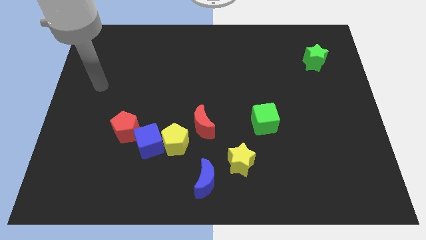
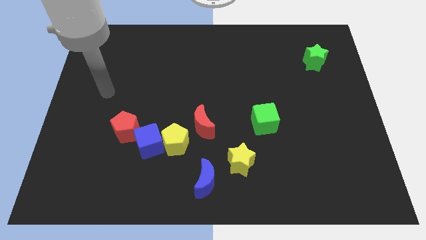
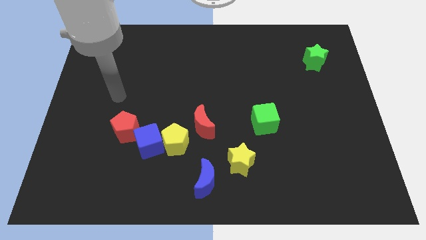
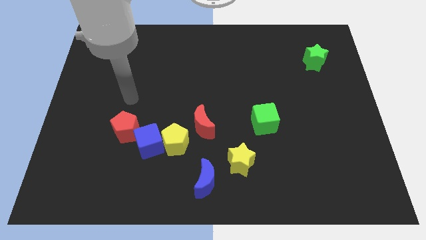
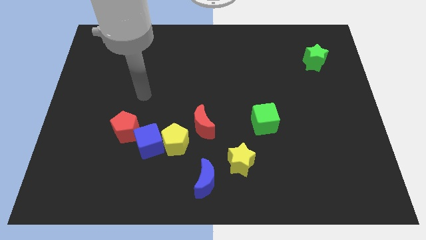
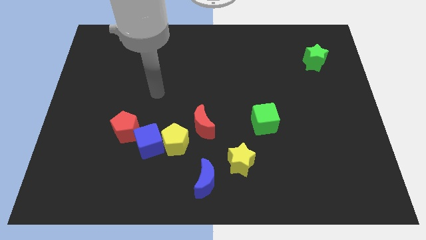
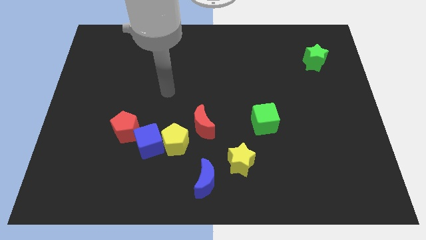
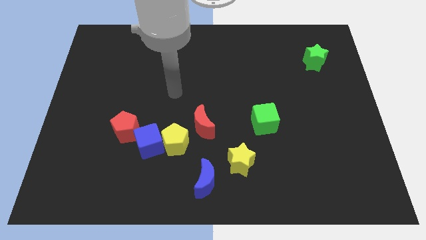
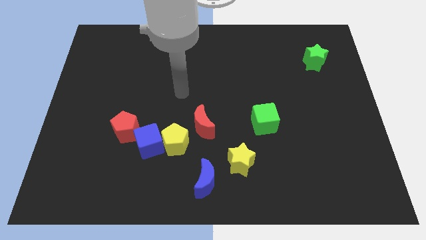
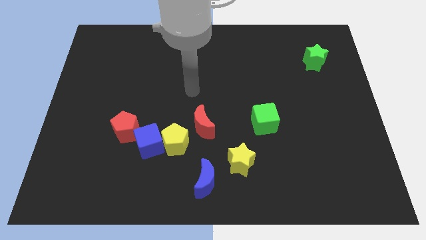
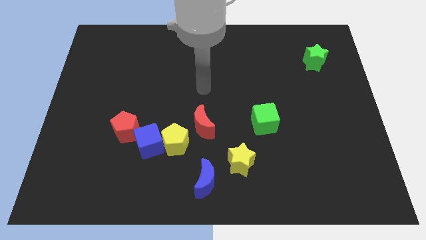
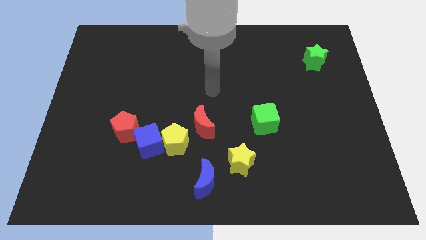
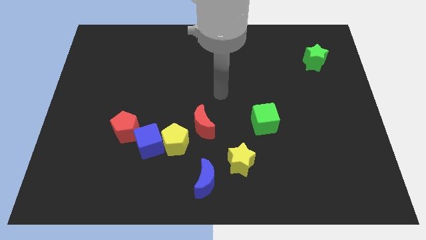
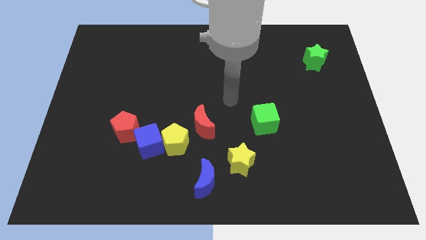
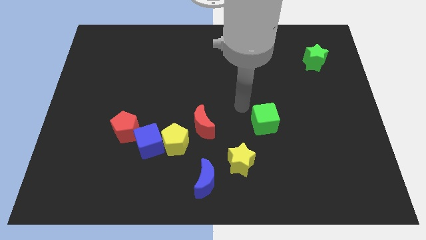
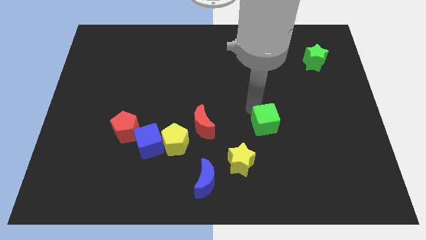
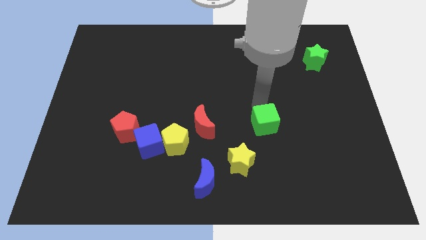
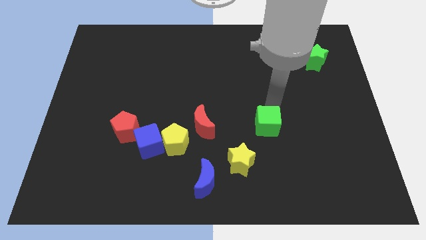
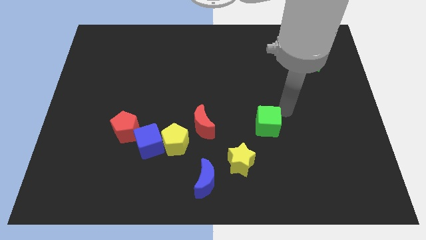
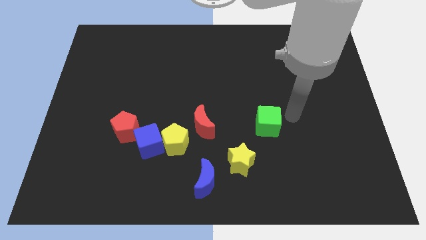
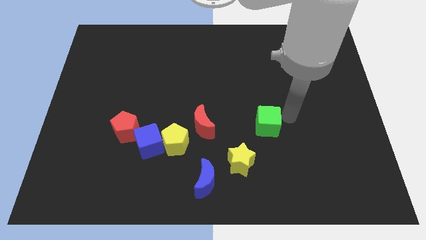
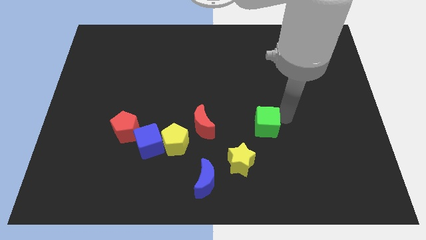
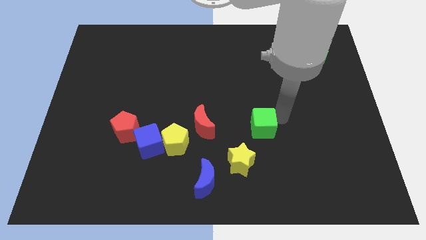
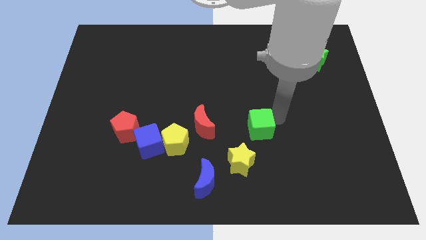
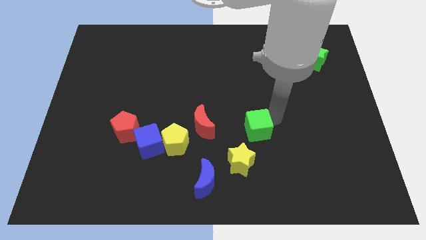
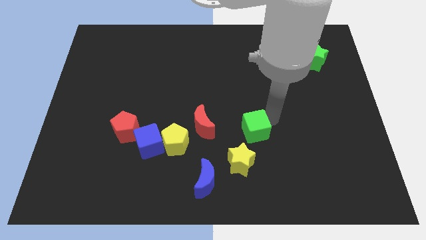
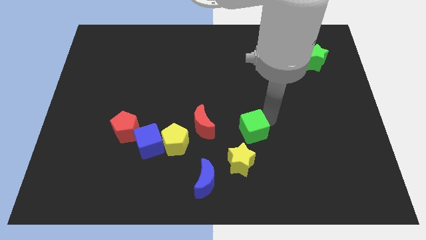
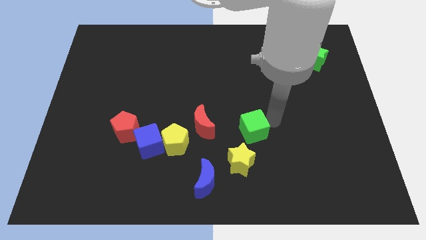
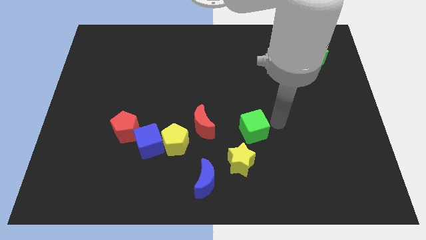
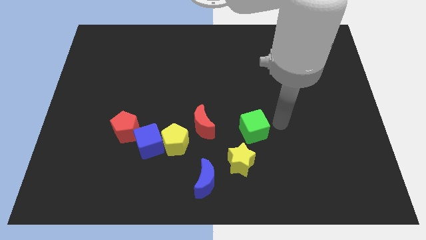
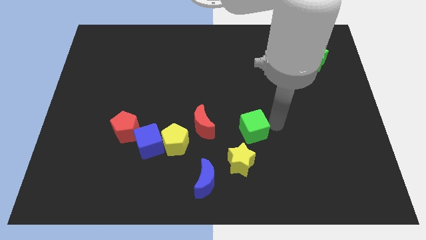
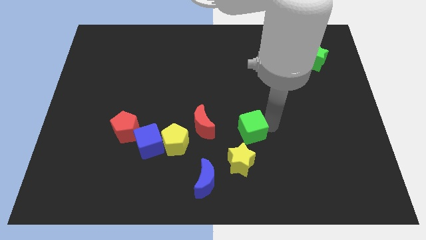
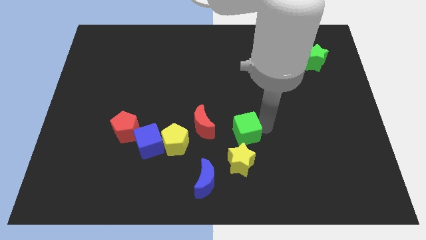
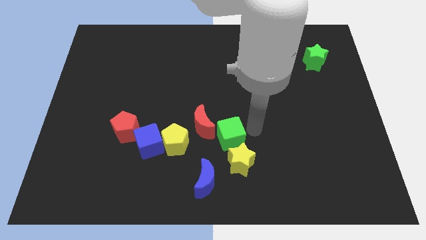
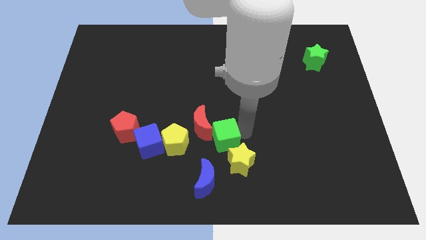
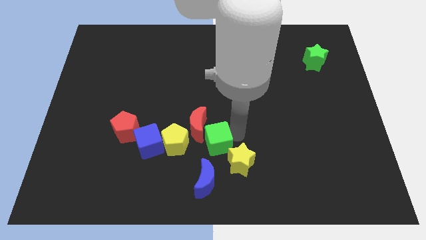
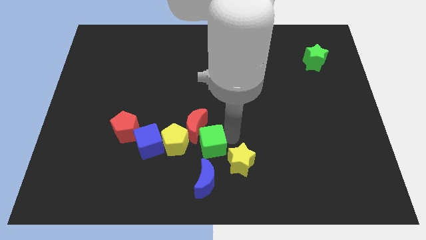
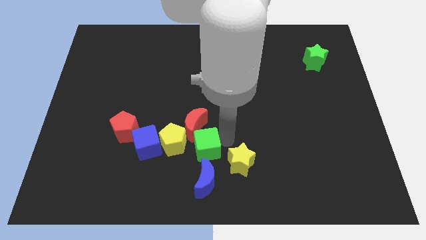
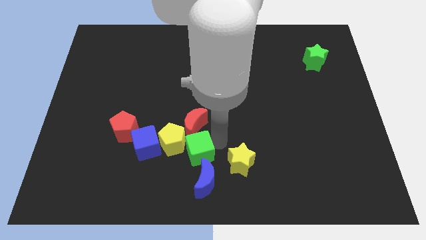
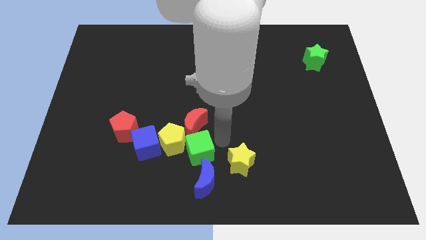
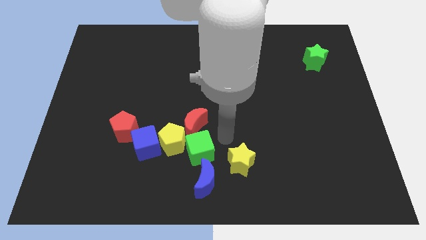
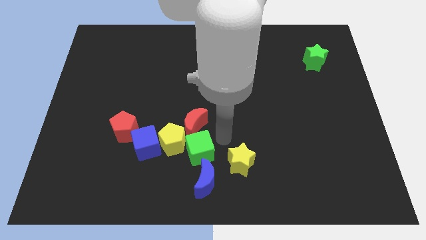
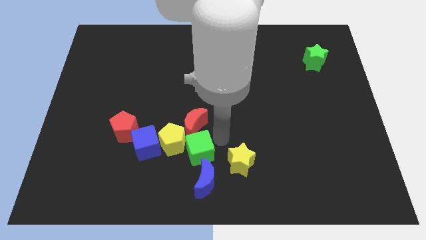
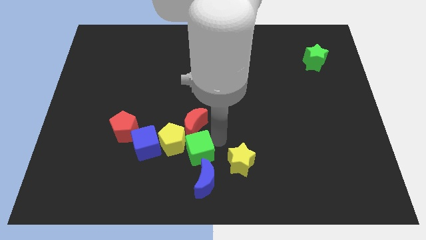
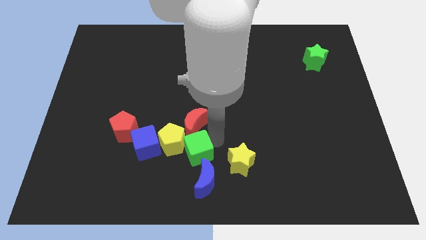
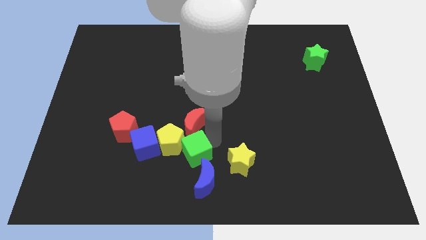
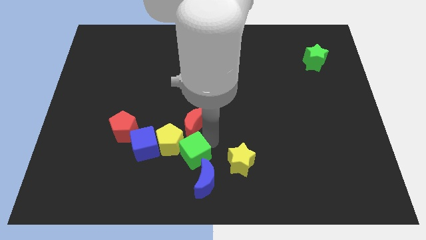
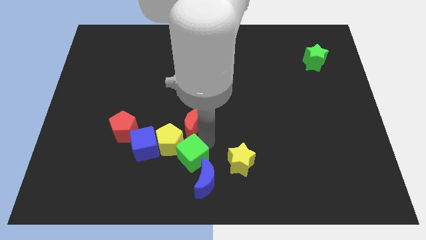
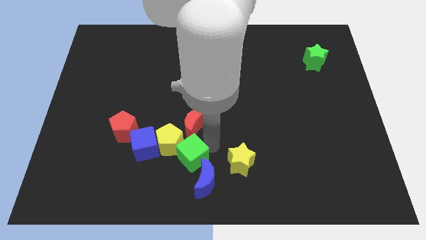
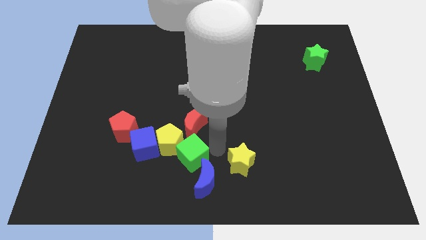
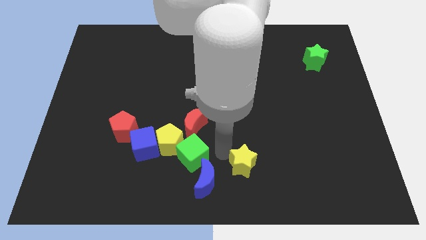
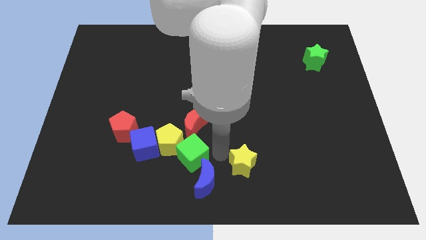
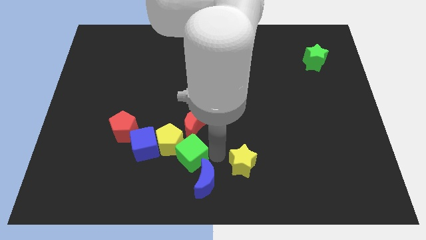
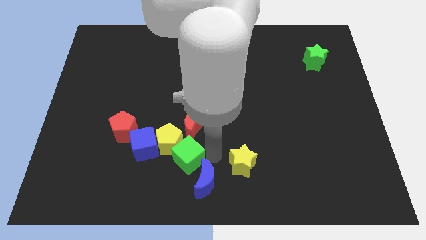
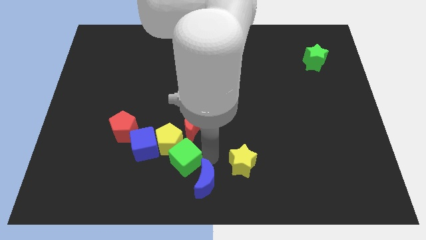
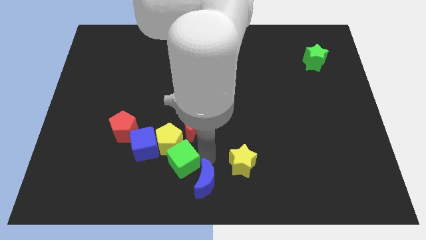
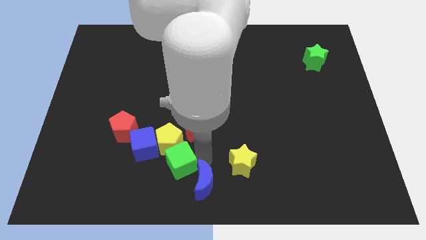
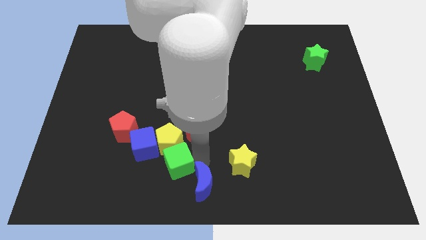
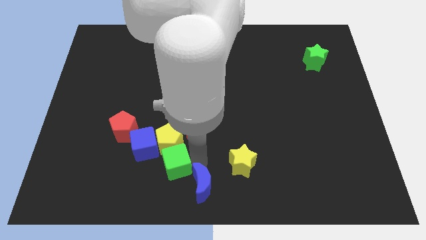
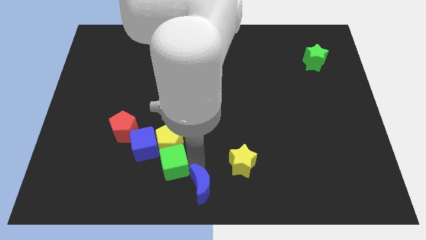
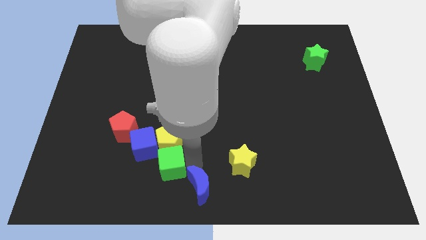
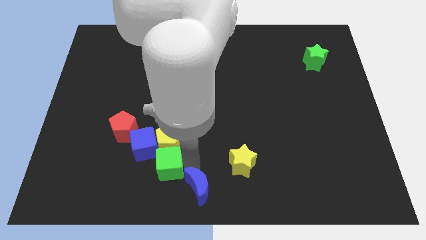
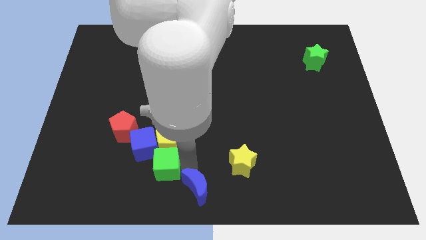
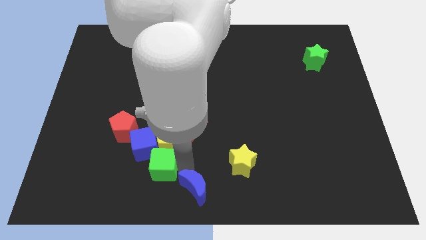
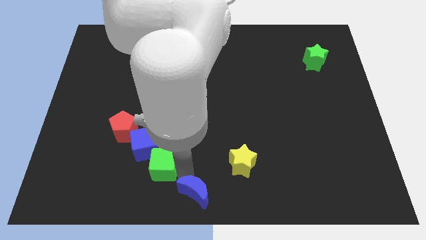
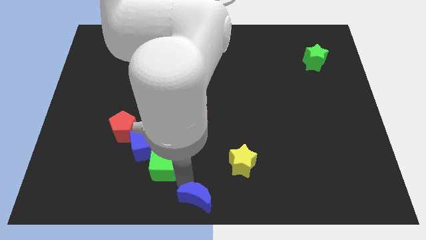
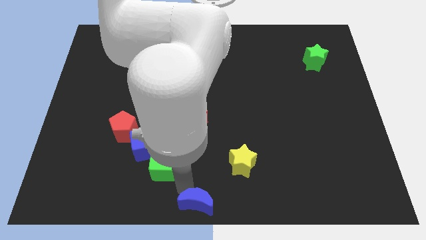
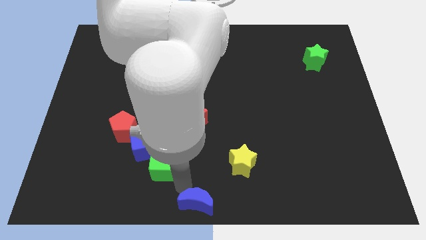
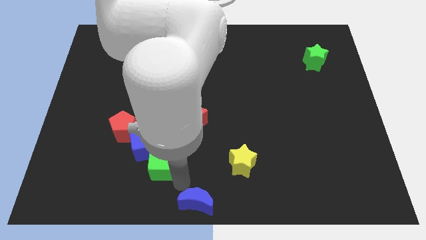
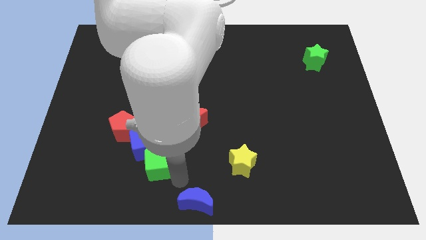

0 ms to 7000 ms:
slide the green cube to the blue cube

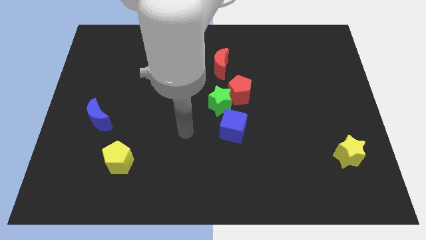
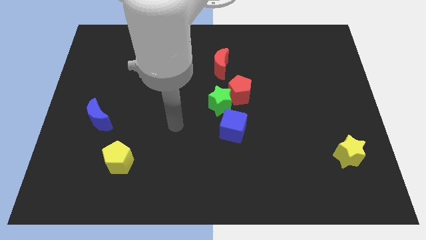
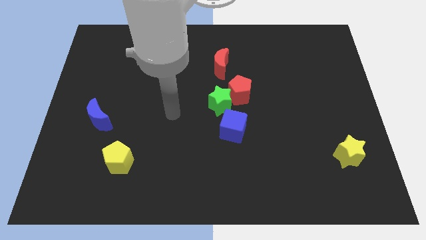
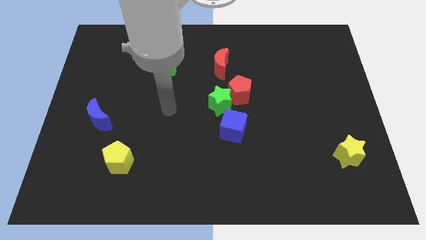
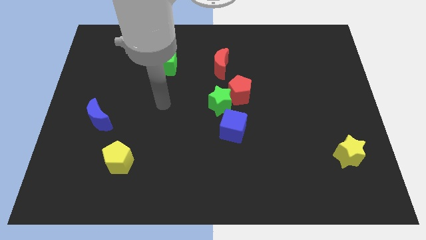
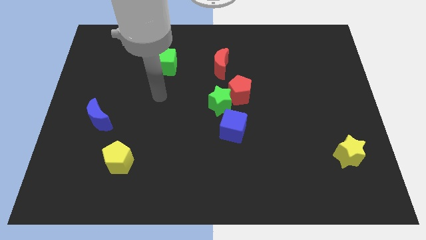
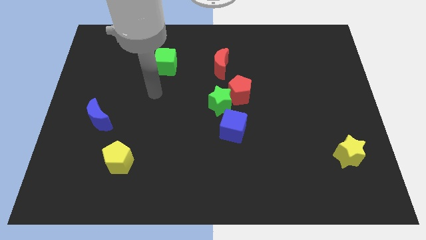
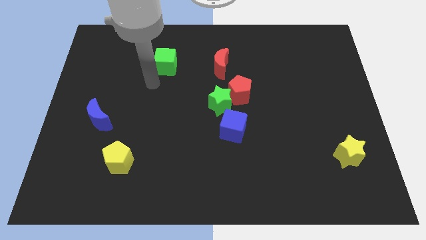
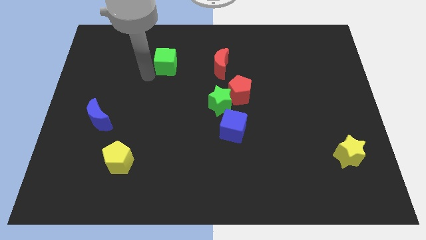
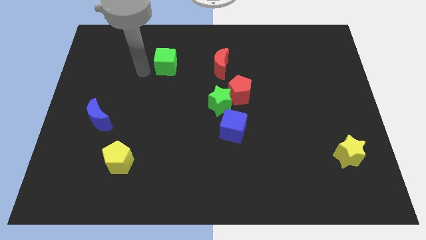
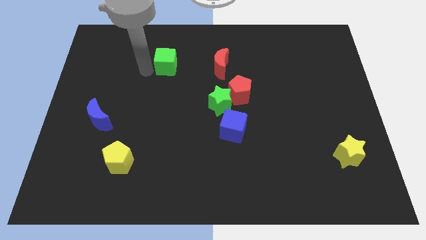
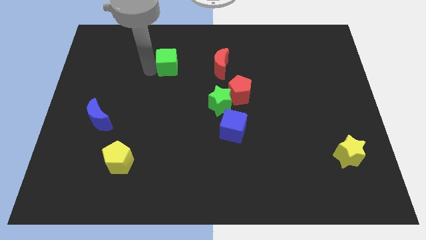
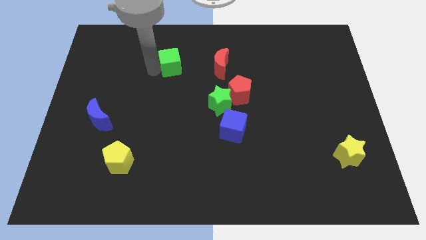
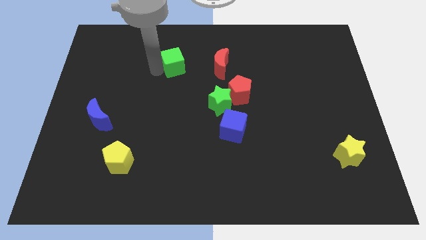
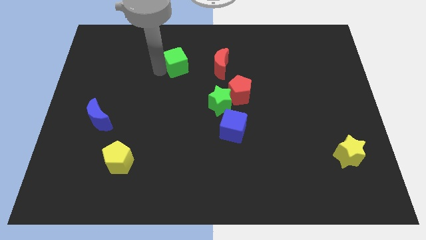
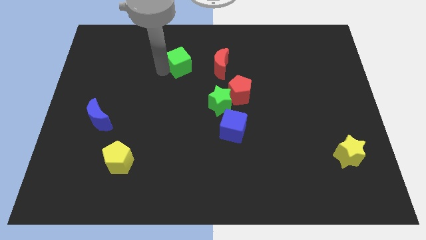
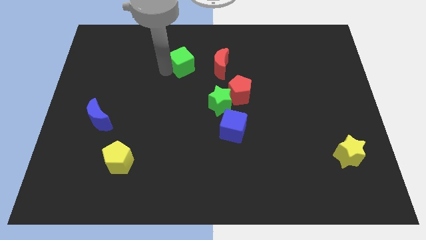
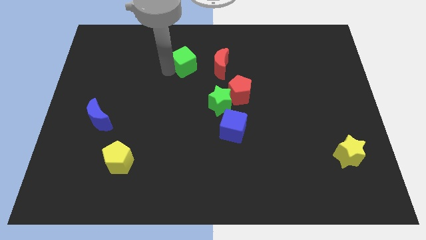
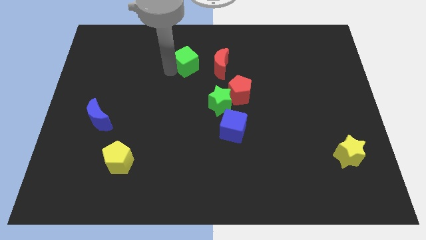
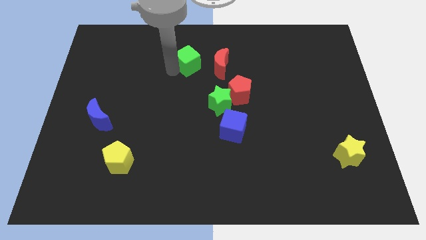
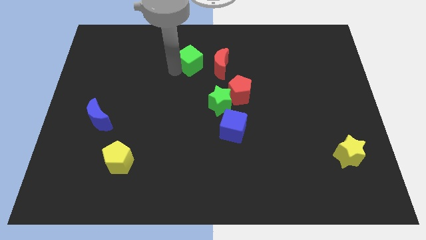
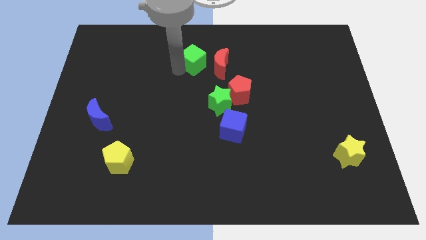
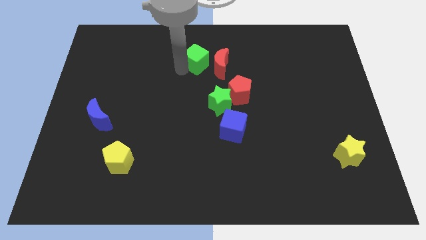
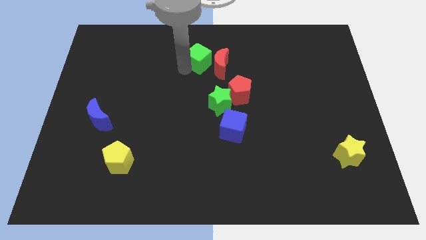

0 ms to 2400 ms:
slide the green cube to the red moon
